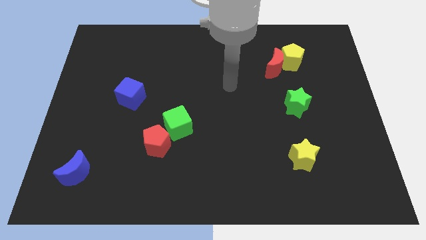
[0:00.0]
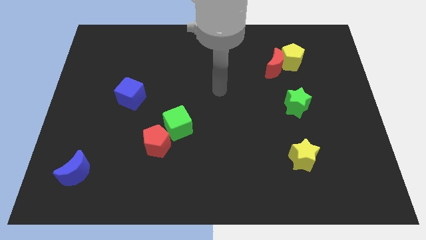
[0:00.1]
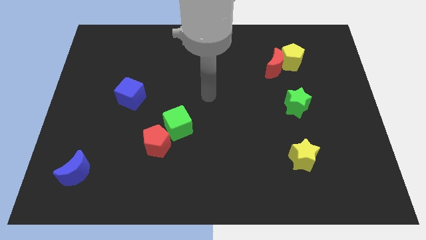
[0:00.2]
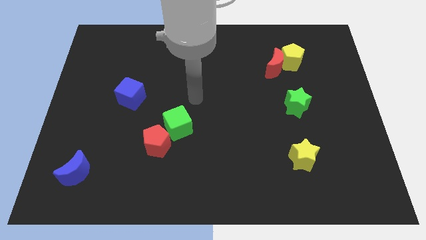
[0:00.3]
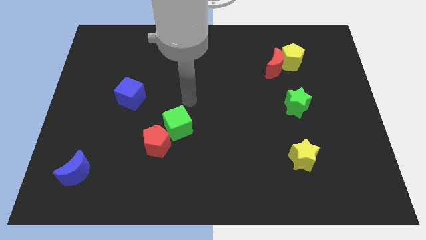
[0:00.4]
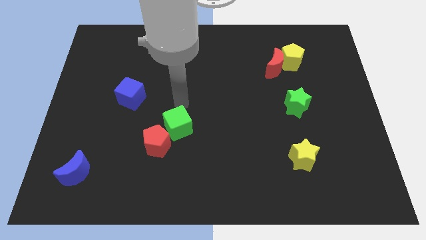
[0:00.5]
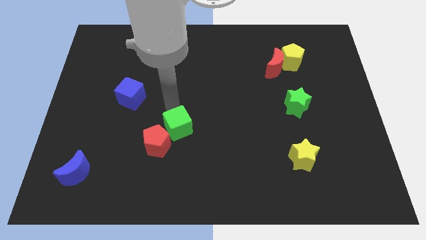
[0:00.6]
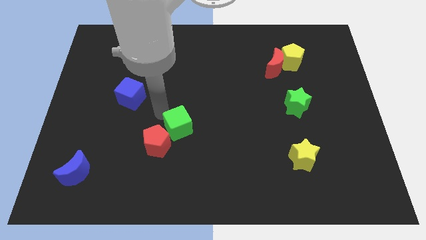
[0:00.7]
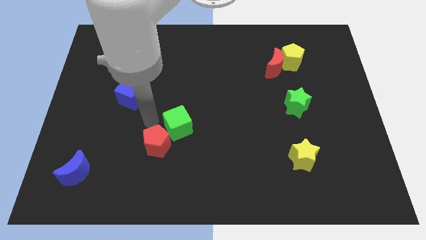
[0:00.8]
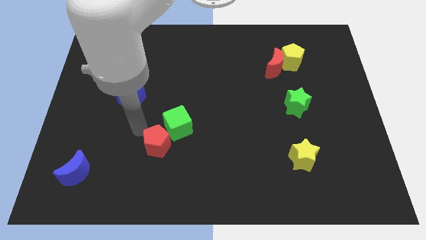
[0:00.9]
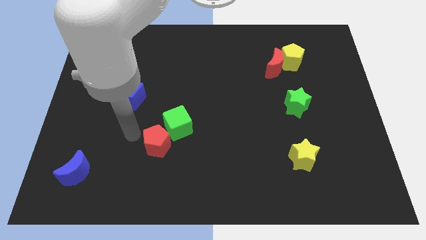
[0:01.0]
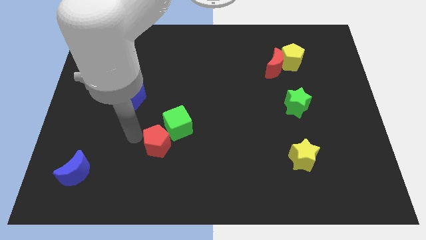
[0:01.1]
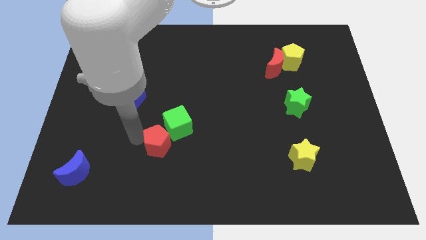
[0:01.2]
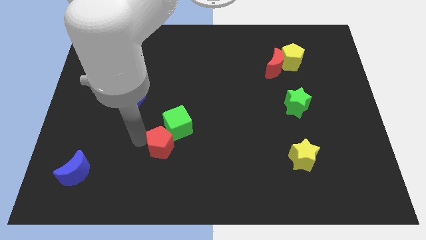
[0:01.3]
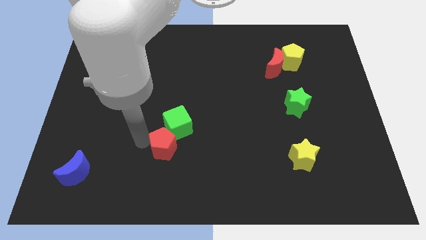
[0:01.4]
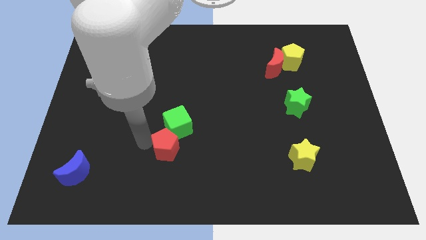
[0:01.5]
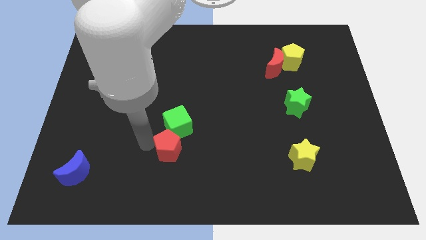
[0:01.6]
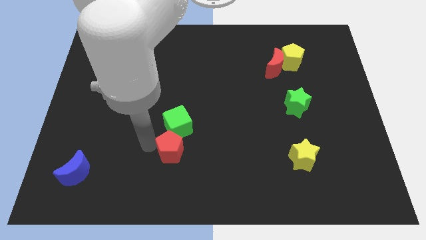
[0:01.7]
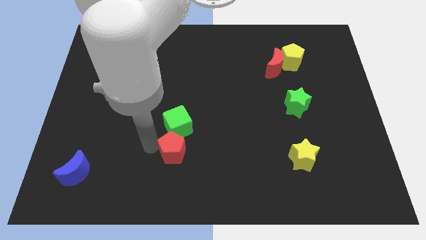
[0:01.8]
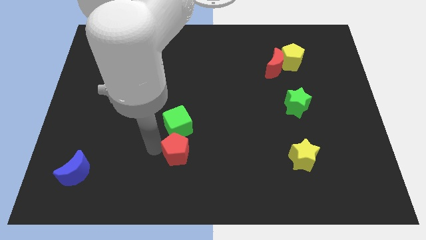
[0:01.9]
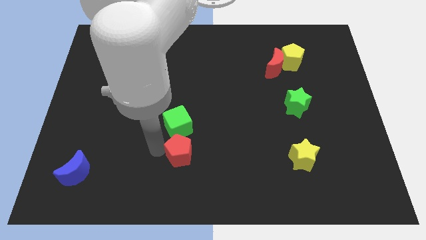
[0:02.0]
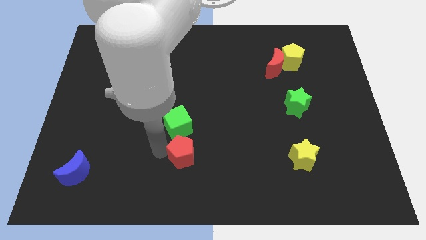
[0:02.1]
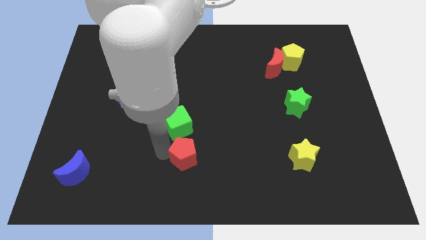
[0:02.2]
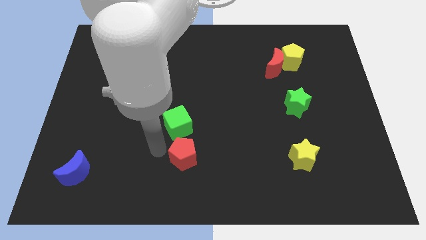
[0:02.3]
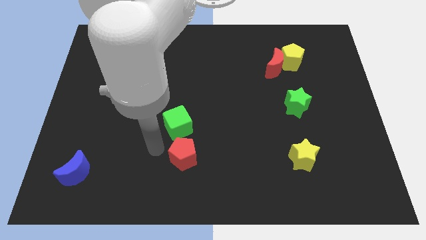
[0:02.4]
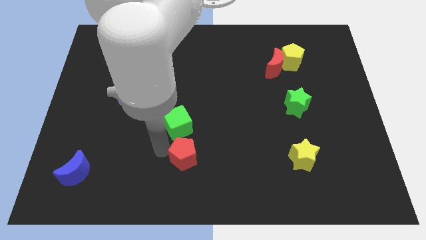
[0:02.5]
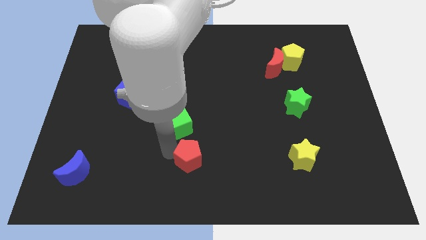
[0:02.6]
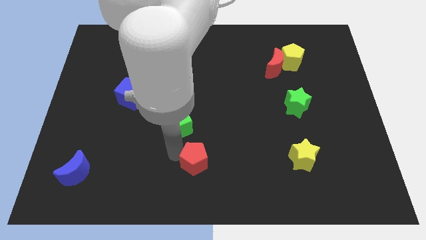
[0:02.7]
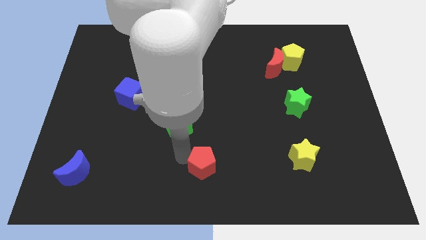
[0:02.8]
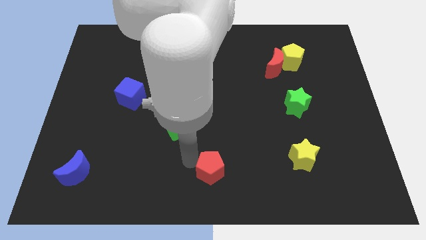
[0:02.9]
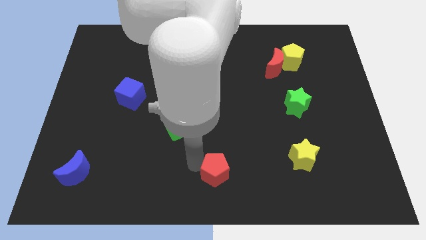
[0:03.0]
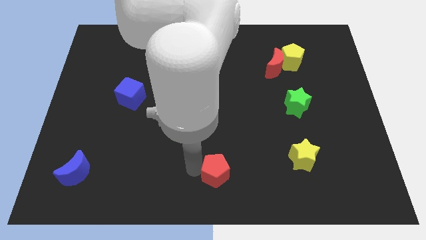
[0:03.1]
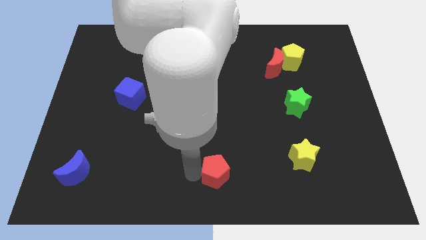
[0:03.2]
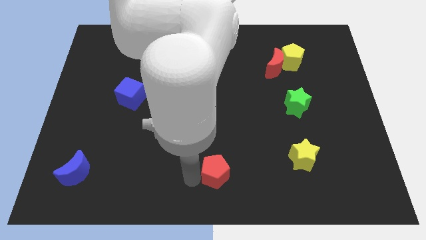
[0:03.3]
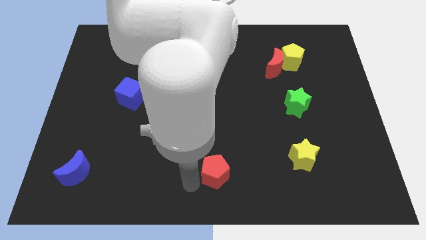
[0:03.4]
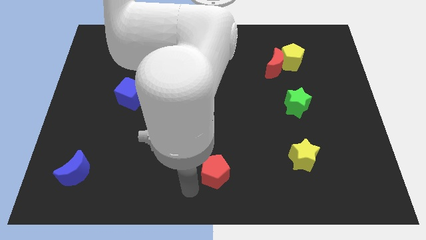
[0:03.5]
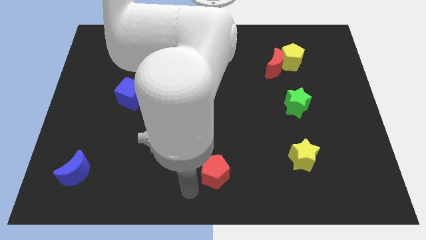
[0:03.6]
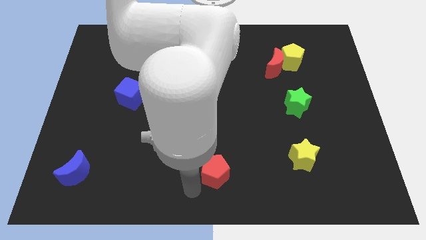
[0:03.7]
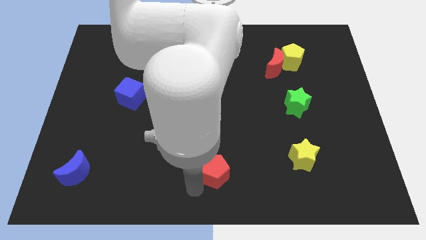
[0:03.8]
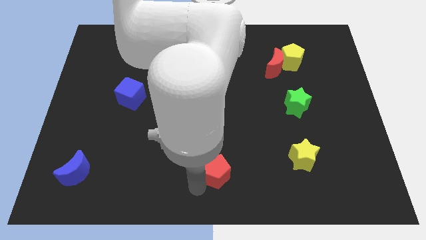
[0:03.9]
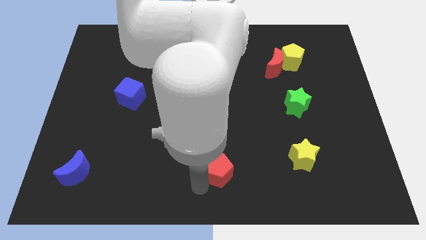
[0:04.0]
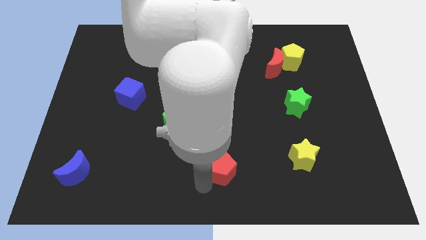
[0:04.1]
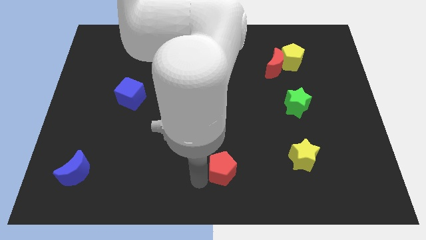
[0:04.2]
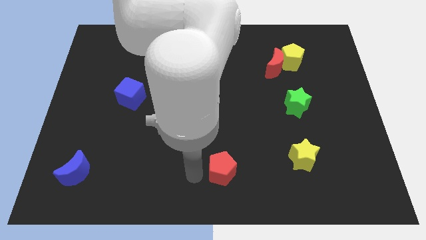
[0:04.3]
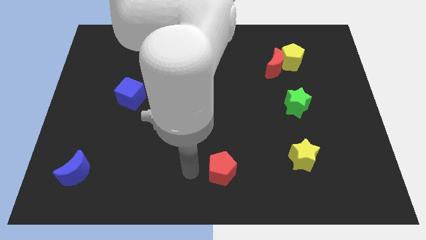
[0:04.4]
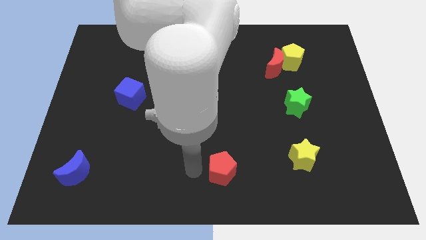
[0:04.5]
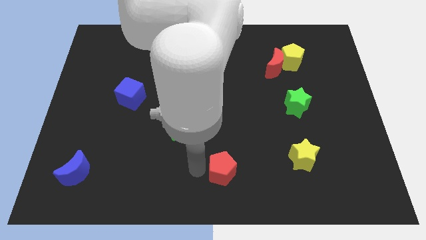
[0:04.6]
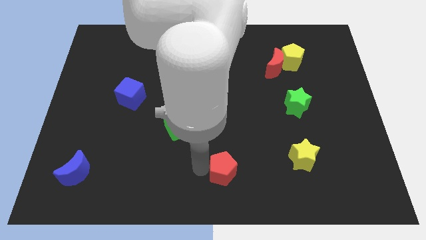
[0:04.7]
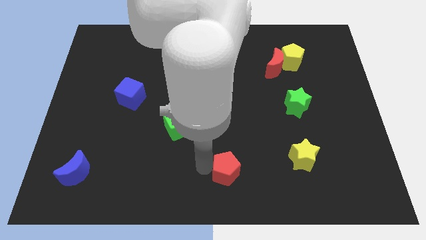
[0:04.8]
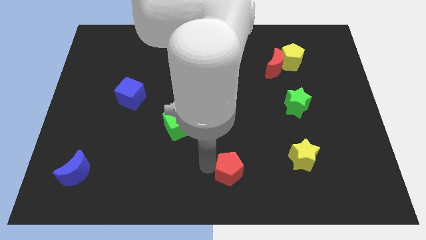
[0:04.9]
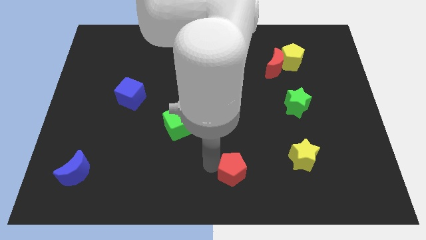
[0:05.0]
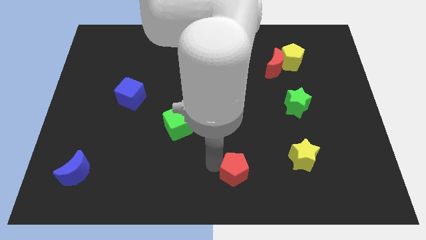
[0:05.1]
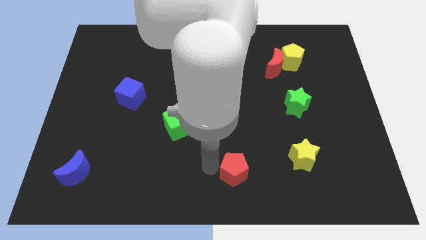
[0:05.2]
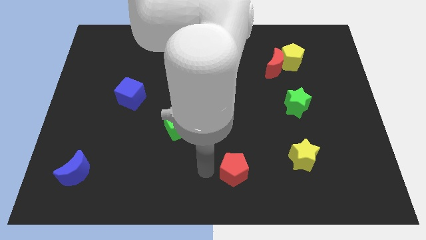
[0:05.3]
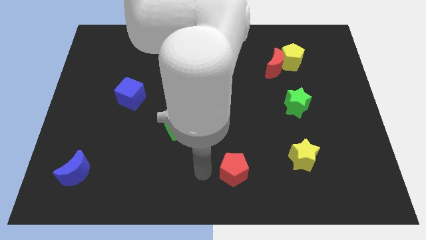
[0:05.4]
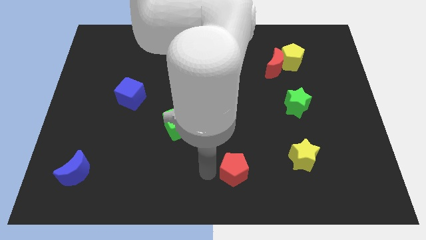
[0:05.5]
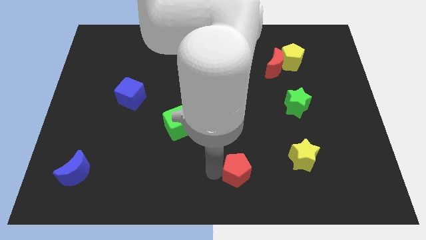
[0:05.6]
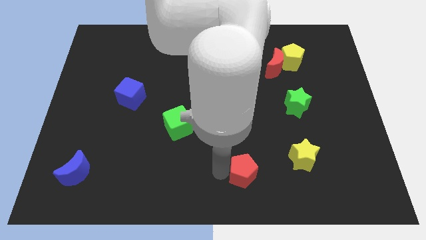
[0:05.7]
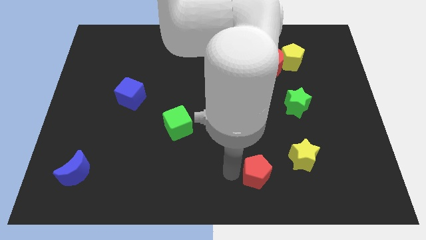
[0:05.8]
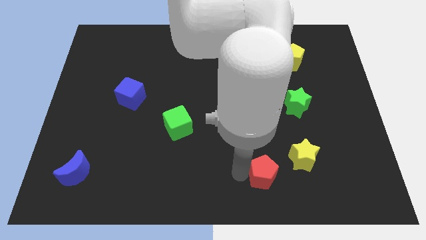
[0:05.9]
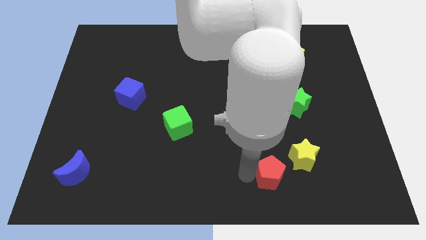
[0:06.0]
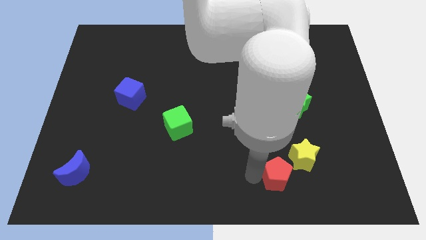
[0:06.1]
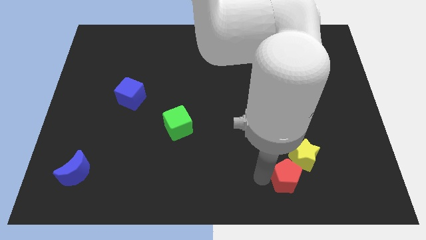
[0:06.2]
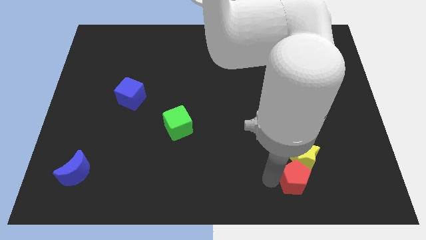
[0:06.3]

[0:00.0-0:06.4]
slide the red pentagon to the yellow star

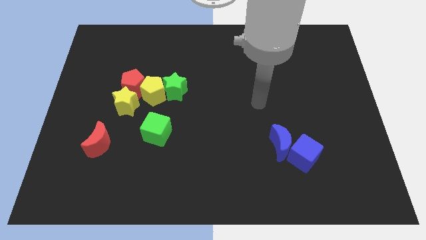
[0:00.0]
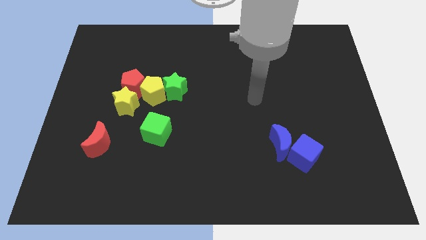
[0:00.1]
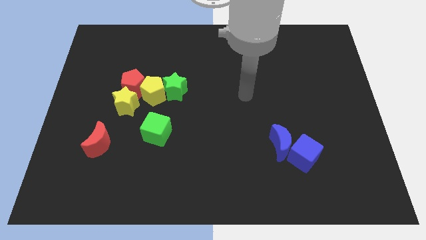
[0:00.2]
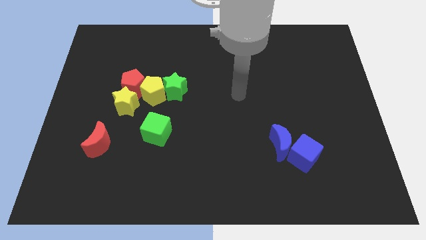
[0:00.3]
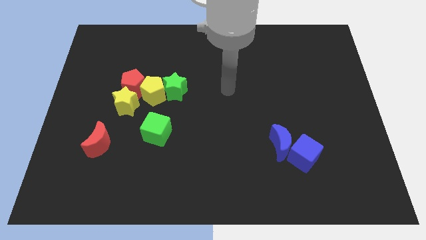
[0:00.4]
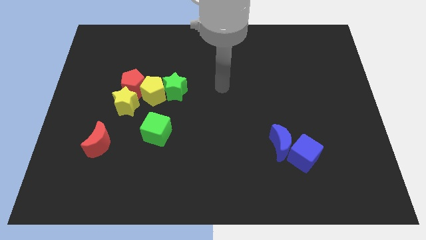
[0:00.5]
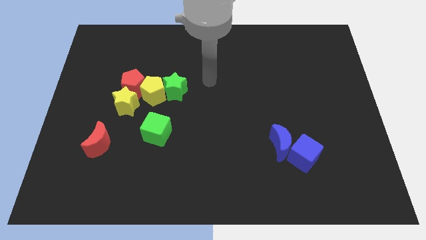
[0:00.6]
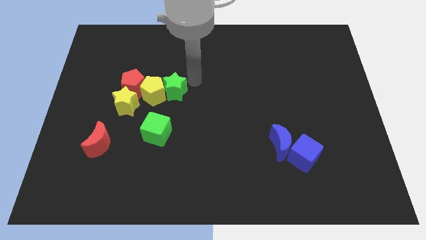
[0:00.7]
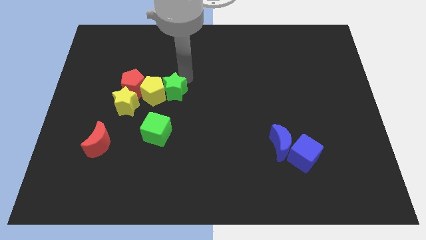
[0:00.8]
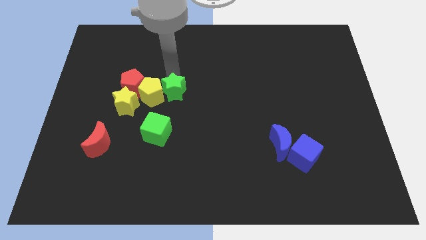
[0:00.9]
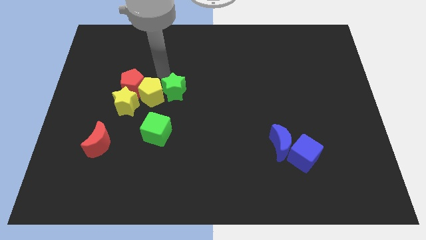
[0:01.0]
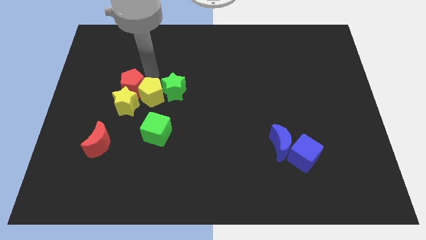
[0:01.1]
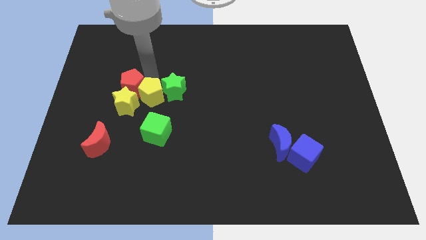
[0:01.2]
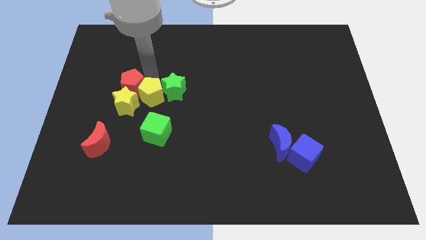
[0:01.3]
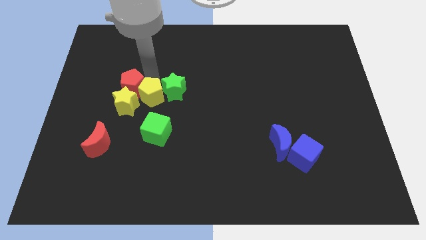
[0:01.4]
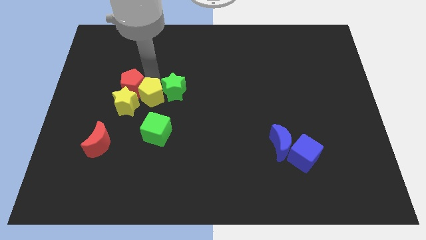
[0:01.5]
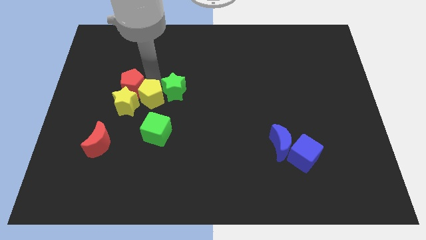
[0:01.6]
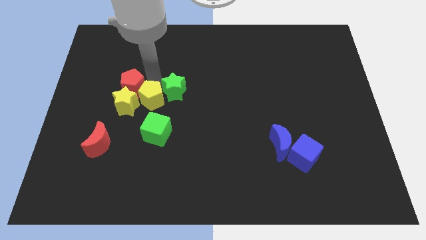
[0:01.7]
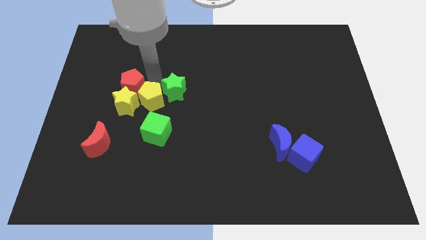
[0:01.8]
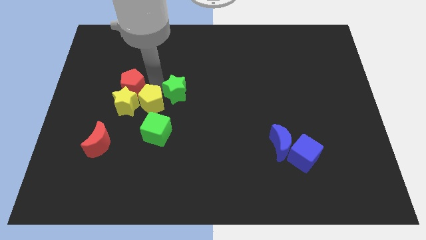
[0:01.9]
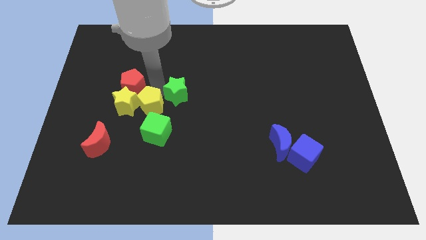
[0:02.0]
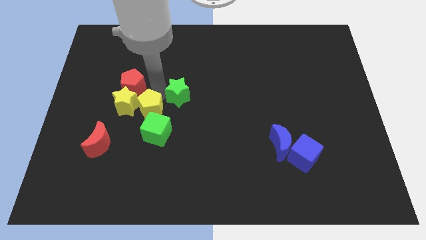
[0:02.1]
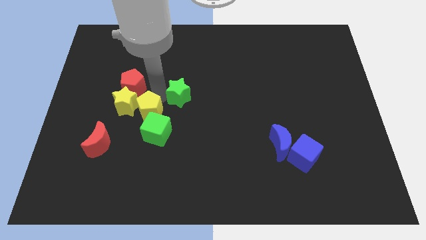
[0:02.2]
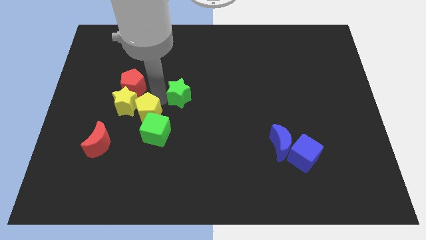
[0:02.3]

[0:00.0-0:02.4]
push the yellow pentagon towards the green cube
